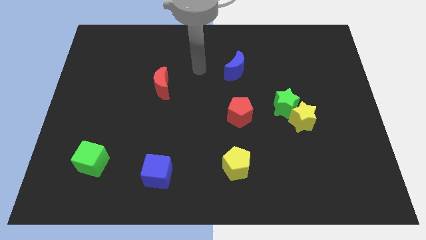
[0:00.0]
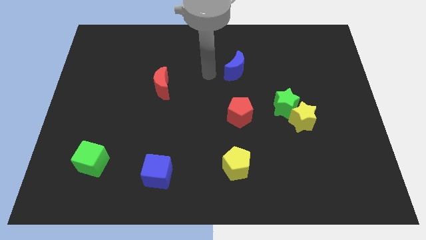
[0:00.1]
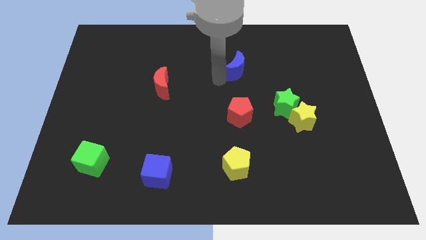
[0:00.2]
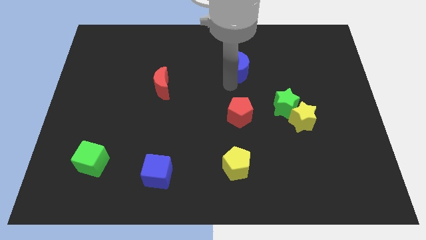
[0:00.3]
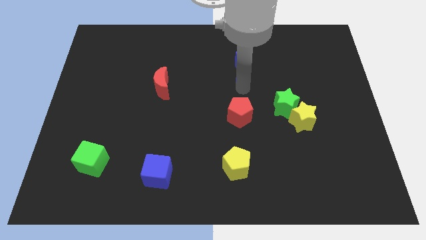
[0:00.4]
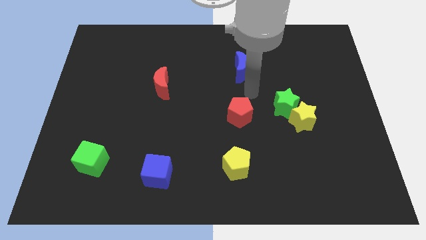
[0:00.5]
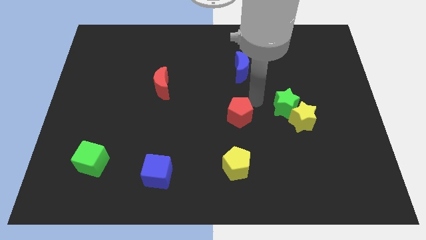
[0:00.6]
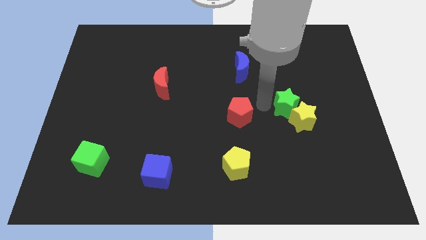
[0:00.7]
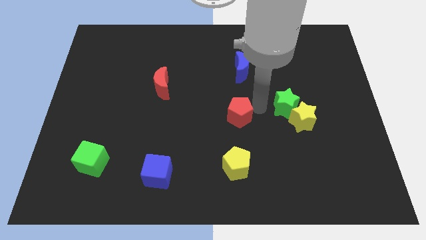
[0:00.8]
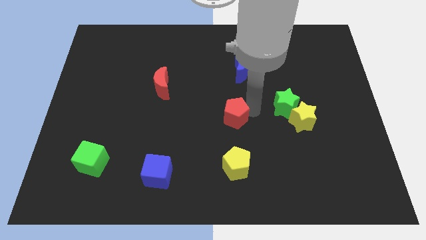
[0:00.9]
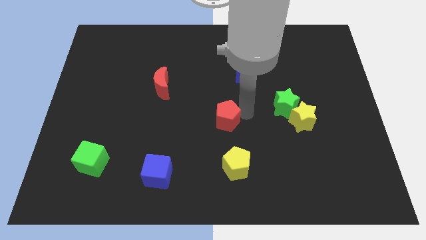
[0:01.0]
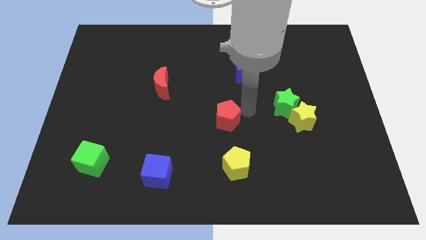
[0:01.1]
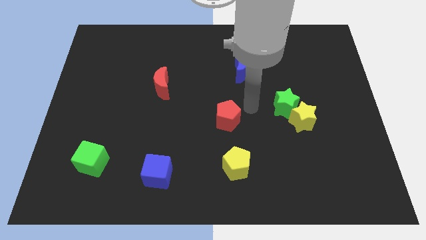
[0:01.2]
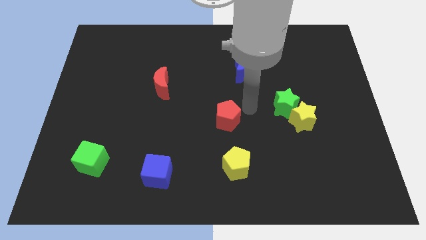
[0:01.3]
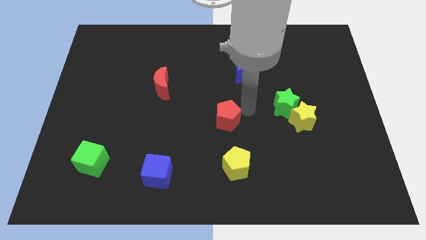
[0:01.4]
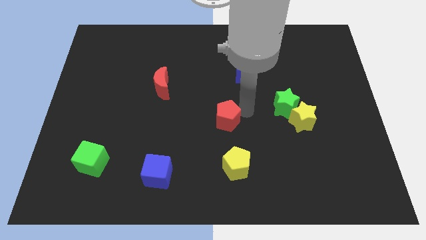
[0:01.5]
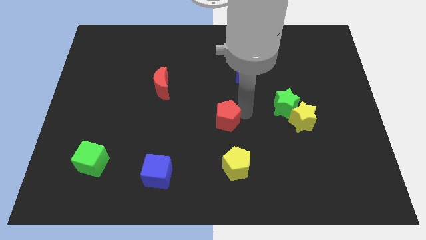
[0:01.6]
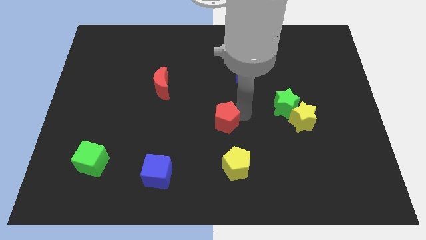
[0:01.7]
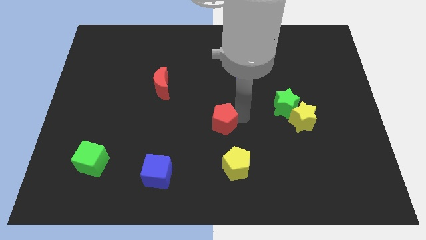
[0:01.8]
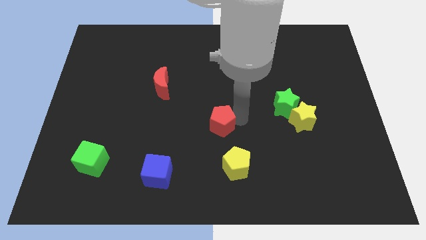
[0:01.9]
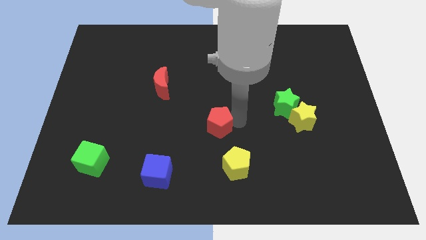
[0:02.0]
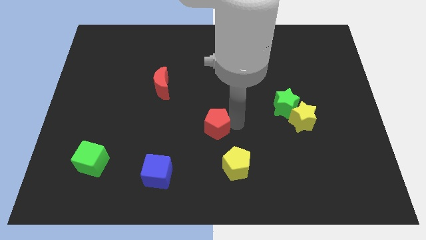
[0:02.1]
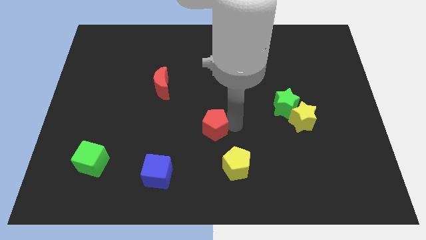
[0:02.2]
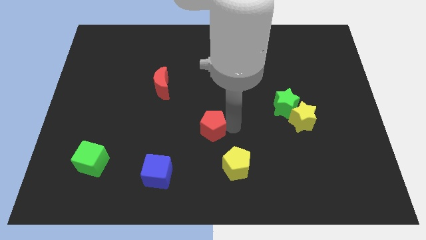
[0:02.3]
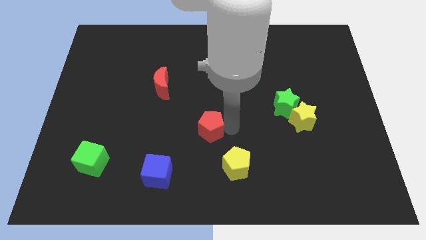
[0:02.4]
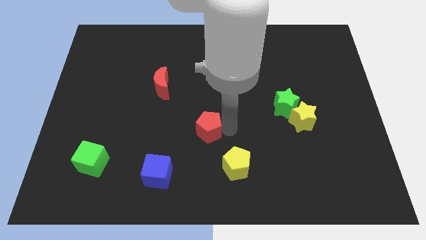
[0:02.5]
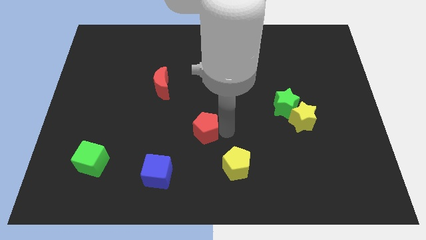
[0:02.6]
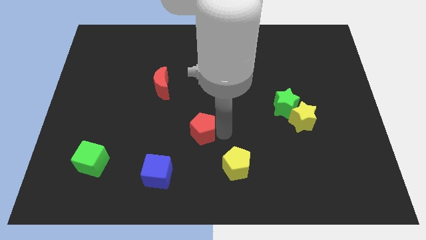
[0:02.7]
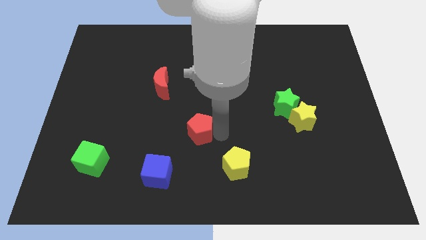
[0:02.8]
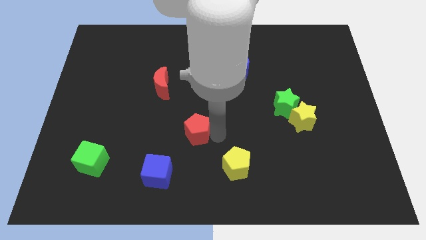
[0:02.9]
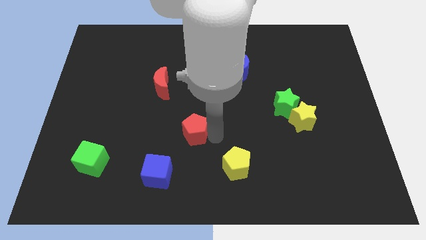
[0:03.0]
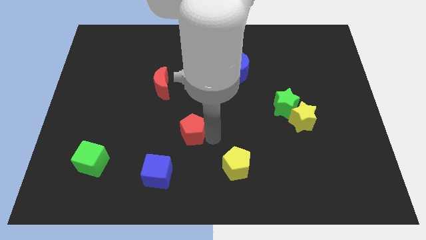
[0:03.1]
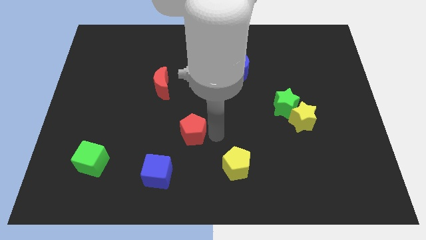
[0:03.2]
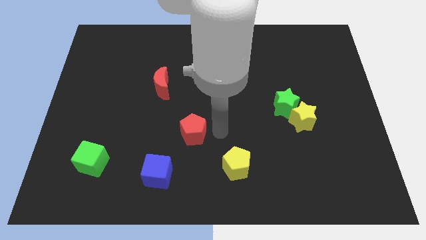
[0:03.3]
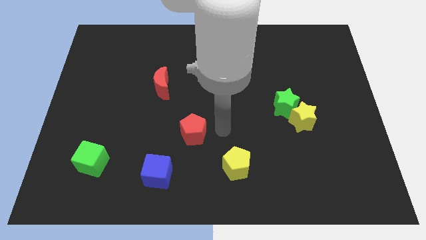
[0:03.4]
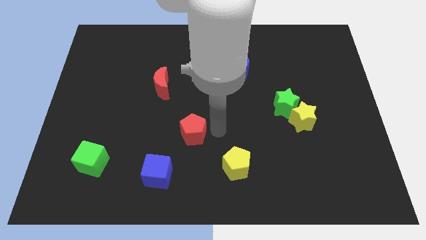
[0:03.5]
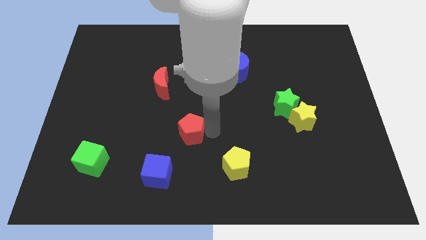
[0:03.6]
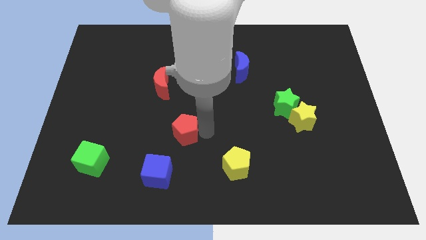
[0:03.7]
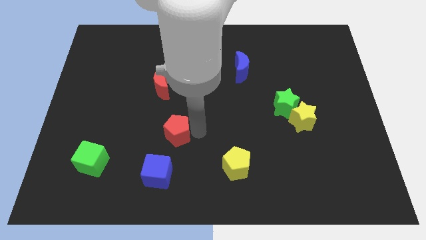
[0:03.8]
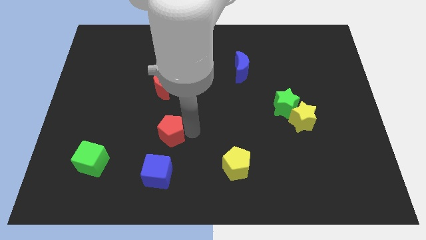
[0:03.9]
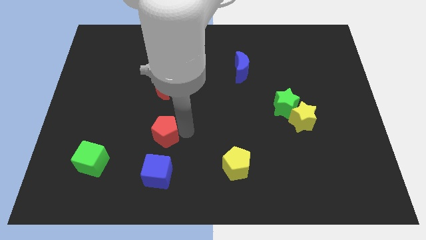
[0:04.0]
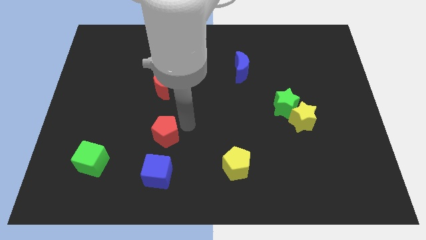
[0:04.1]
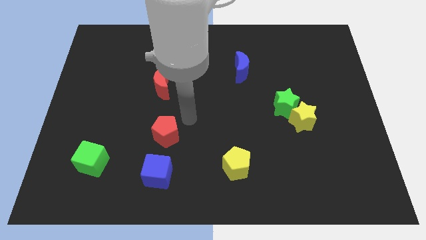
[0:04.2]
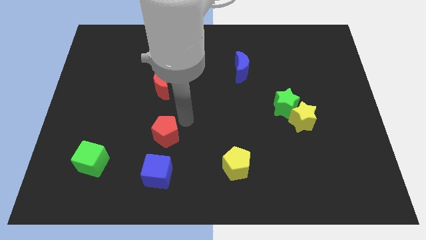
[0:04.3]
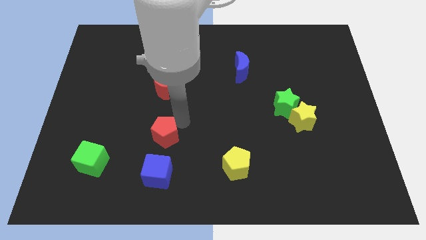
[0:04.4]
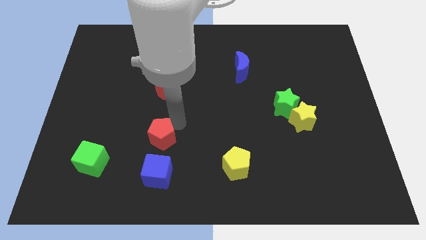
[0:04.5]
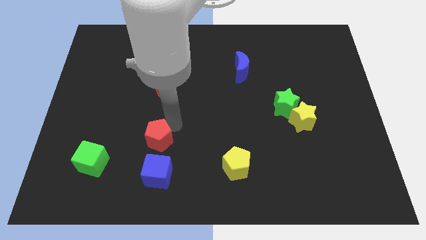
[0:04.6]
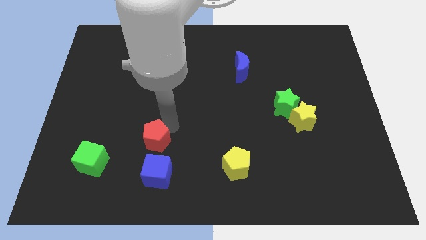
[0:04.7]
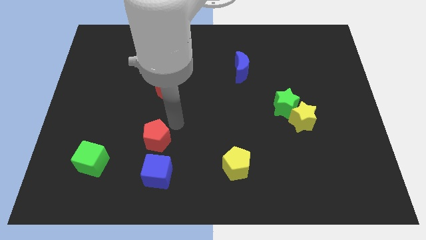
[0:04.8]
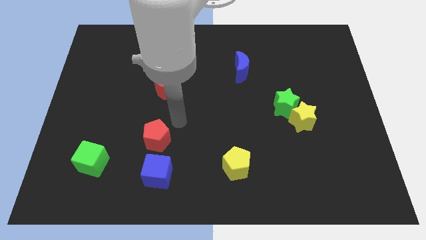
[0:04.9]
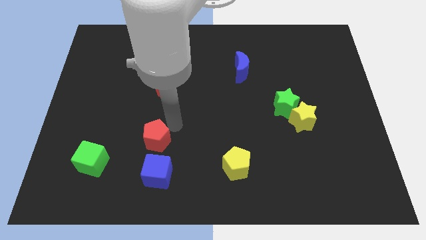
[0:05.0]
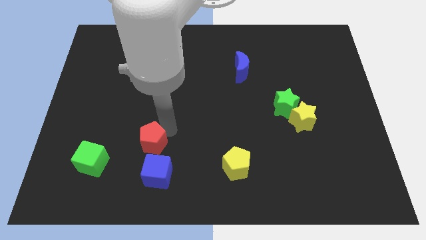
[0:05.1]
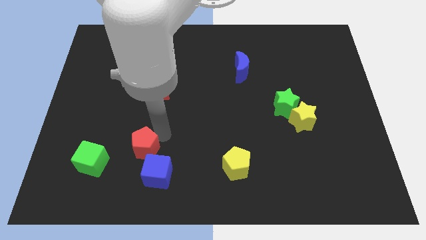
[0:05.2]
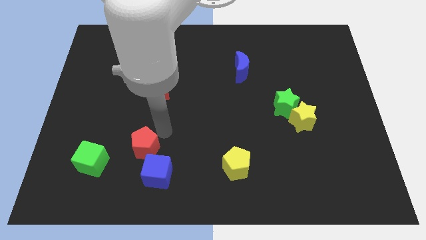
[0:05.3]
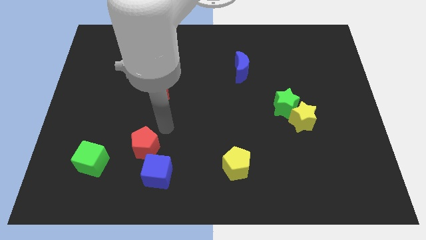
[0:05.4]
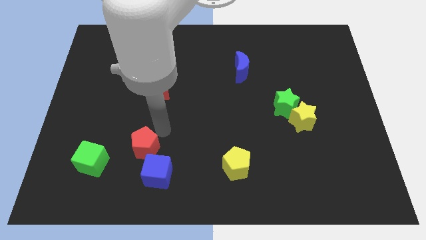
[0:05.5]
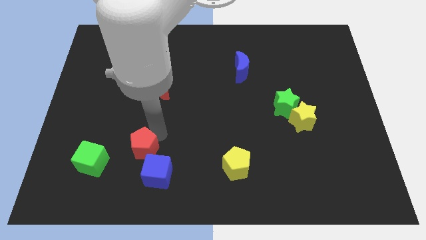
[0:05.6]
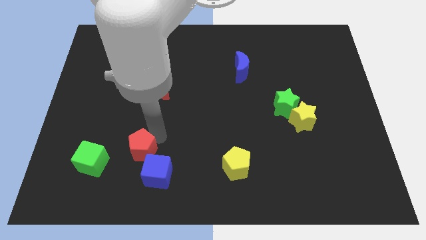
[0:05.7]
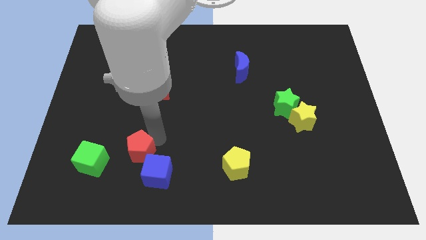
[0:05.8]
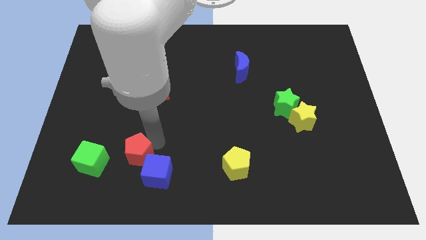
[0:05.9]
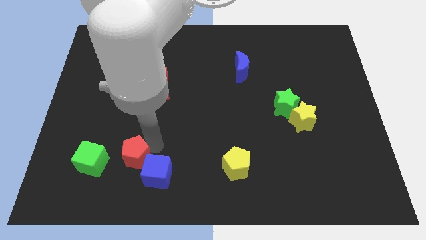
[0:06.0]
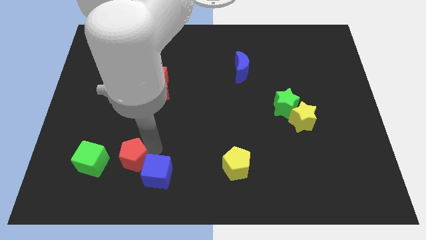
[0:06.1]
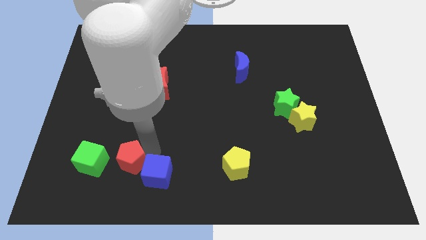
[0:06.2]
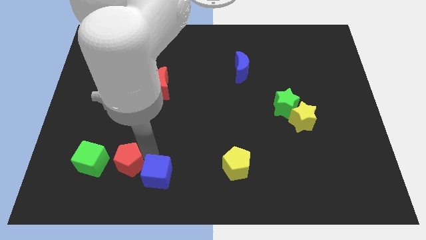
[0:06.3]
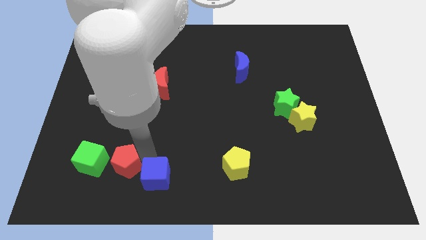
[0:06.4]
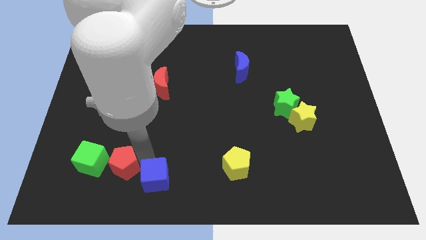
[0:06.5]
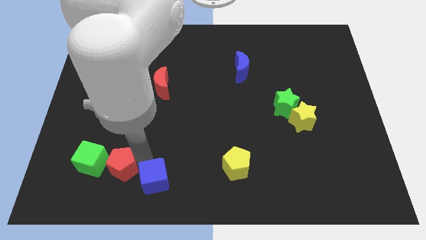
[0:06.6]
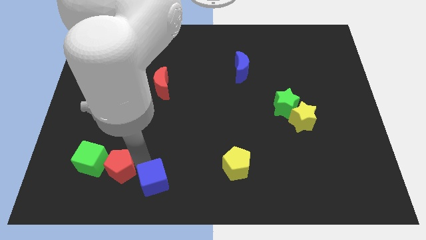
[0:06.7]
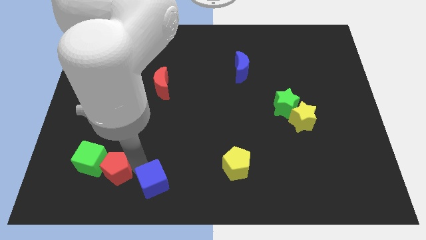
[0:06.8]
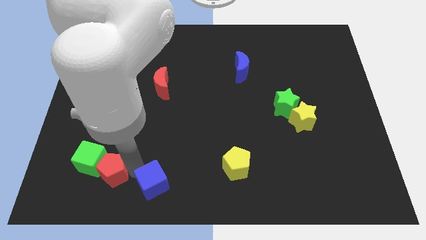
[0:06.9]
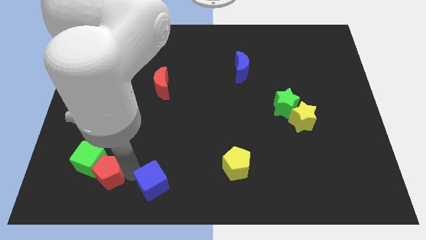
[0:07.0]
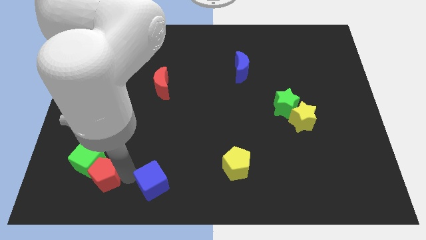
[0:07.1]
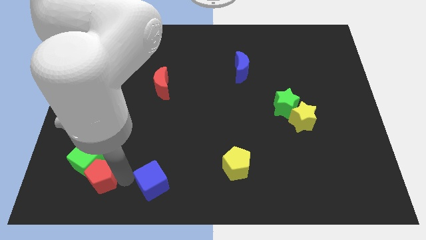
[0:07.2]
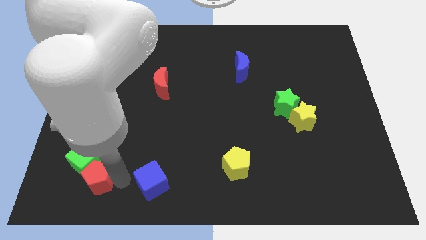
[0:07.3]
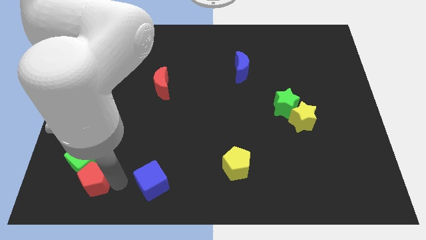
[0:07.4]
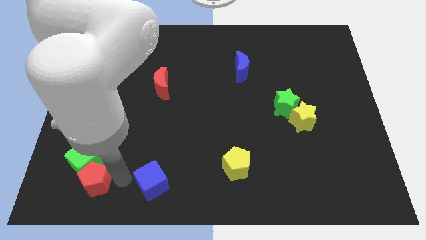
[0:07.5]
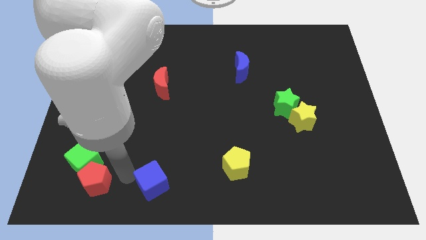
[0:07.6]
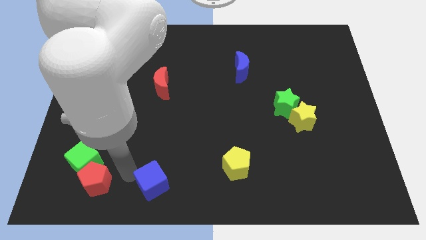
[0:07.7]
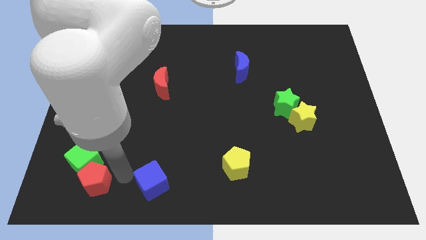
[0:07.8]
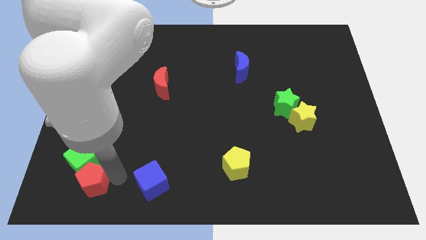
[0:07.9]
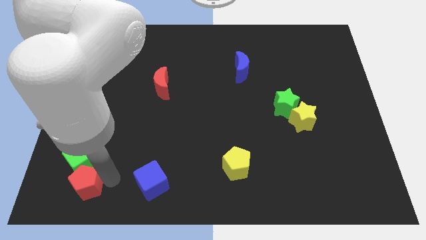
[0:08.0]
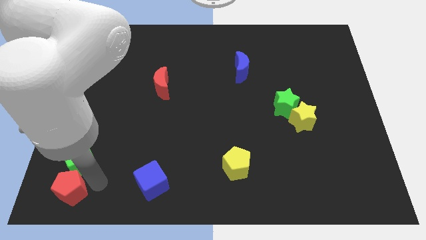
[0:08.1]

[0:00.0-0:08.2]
push the red pentagon to the bottom left
